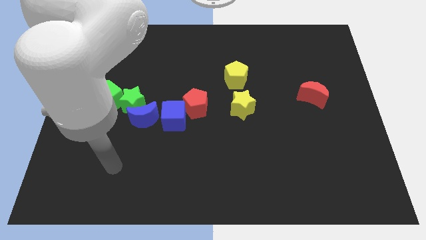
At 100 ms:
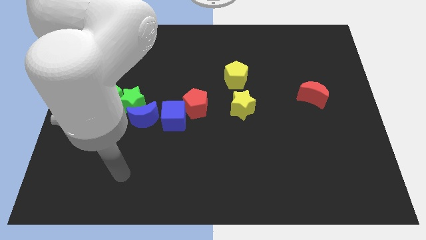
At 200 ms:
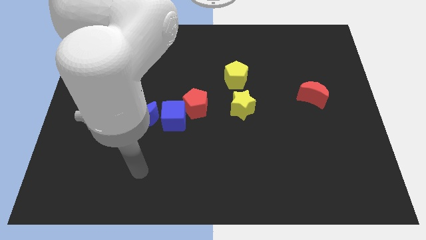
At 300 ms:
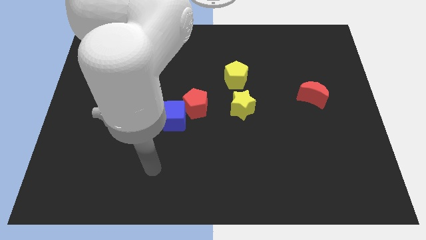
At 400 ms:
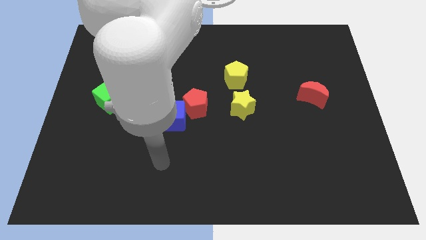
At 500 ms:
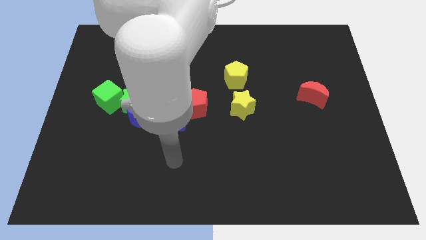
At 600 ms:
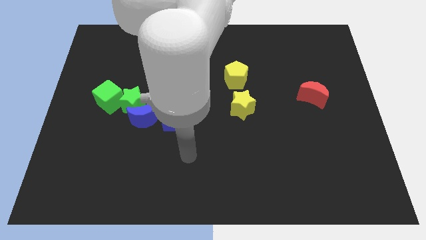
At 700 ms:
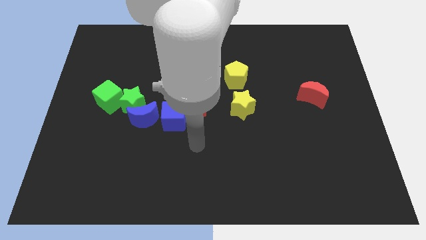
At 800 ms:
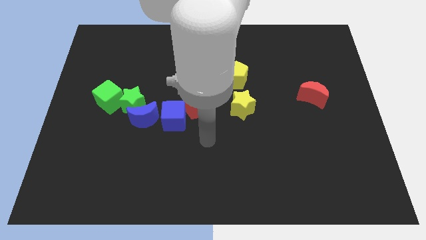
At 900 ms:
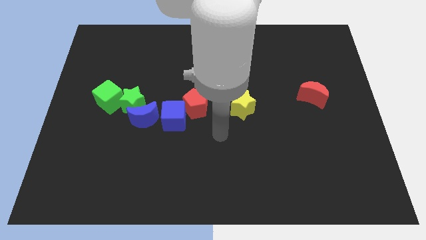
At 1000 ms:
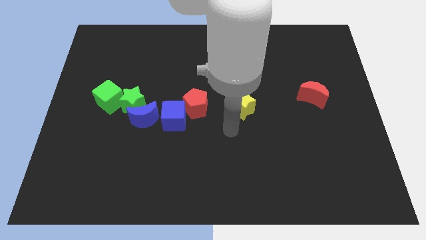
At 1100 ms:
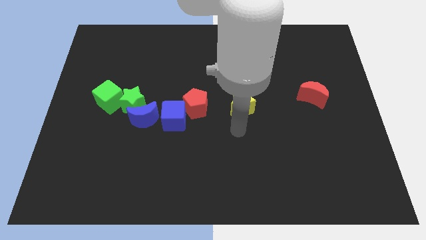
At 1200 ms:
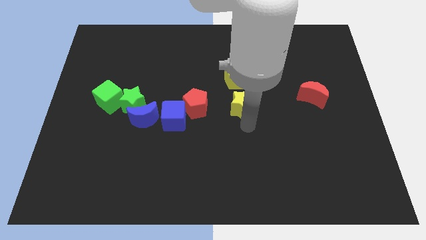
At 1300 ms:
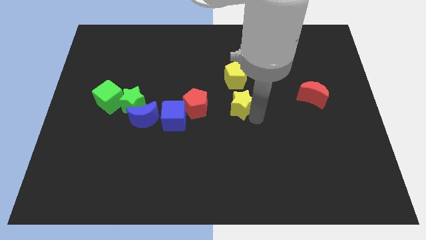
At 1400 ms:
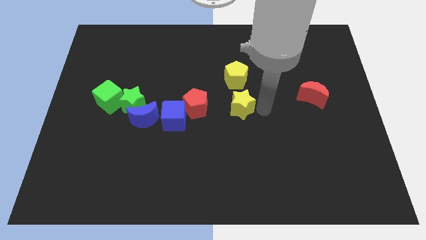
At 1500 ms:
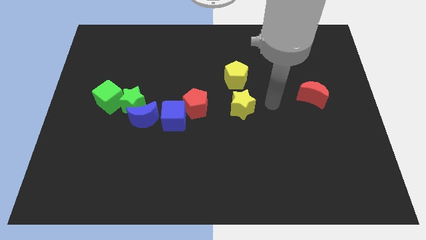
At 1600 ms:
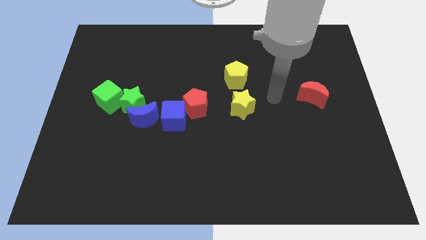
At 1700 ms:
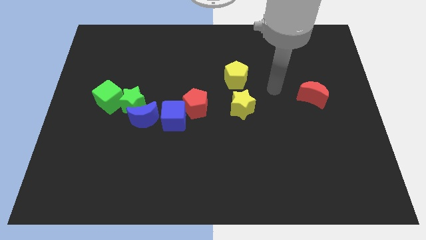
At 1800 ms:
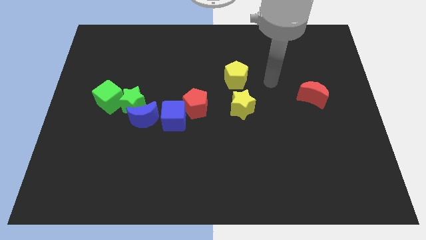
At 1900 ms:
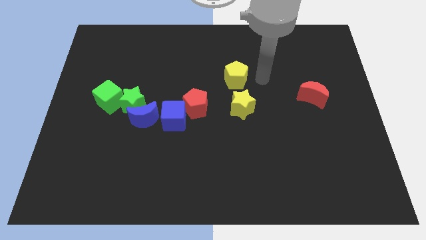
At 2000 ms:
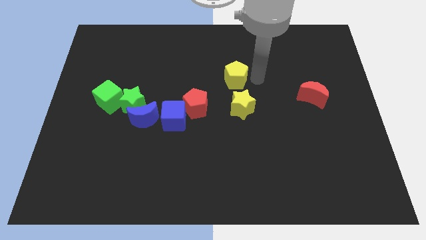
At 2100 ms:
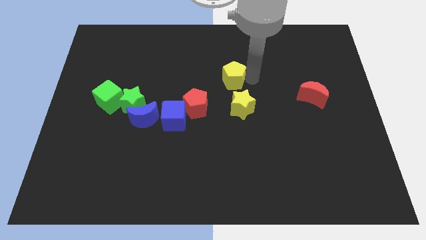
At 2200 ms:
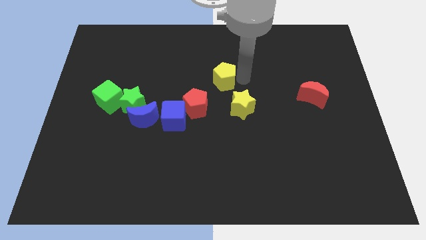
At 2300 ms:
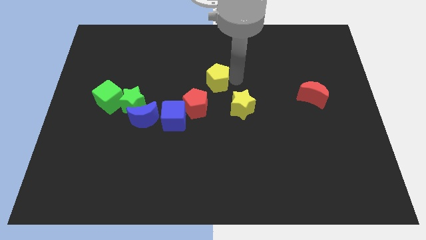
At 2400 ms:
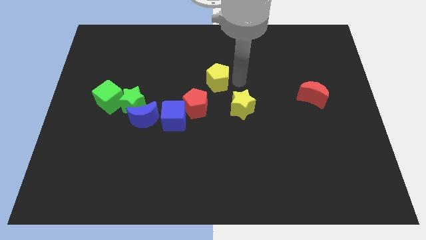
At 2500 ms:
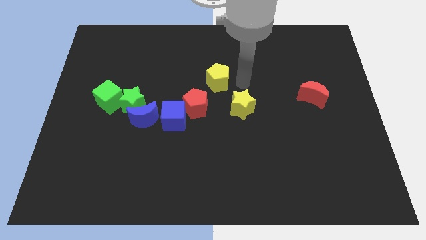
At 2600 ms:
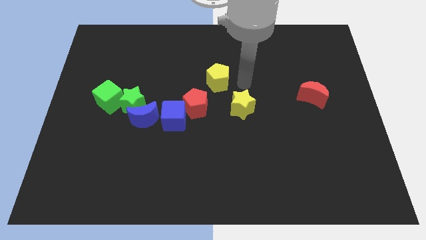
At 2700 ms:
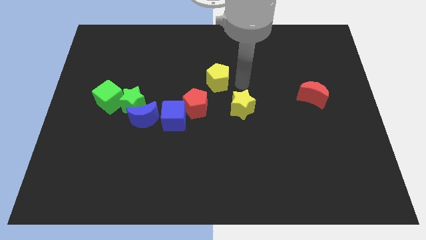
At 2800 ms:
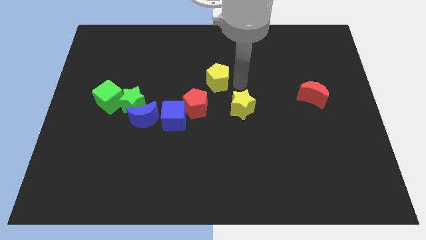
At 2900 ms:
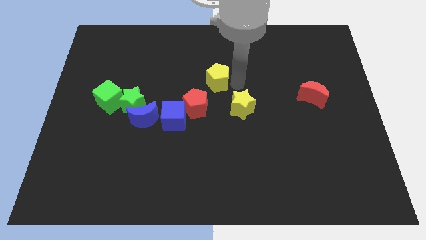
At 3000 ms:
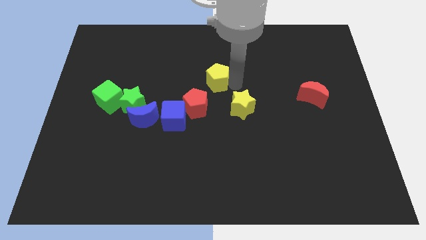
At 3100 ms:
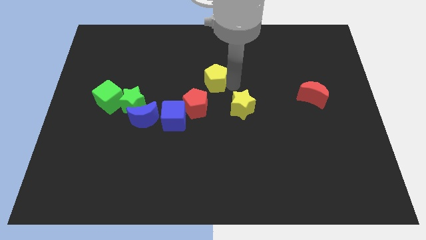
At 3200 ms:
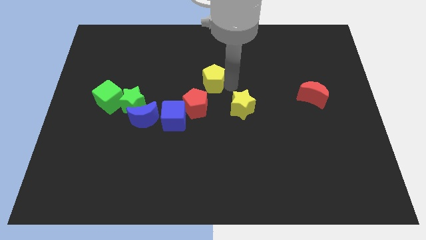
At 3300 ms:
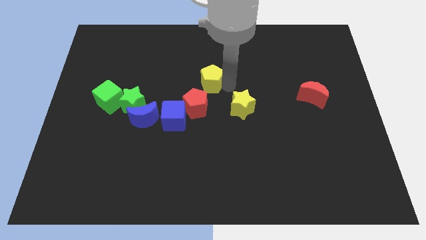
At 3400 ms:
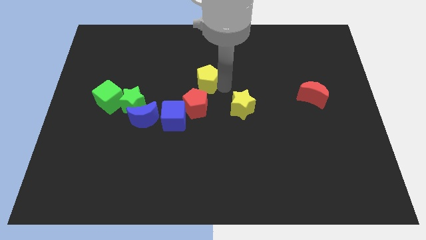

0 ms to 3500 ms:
push the yellow pentagon slightly left

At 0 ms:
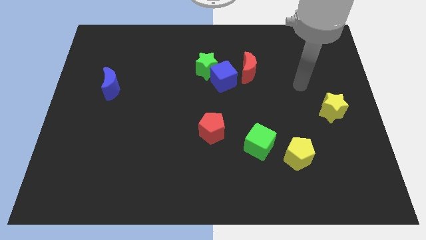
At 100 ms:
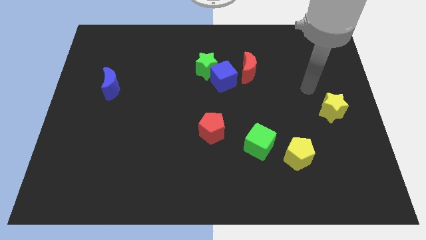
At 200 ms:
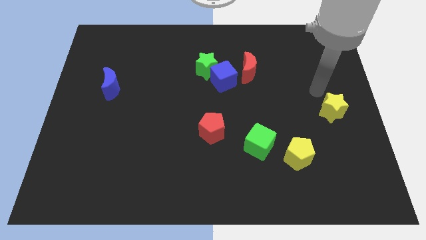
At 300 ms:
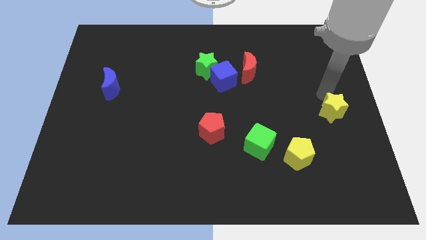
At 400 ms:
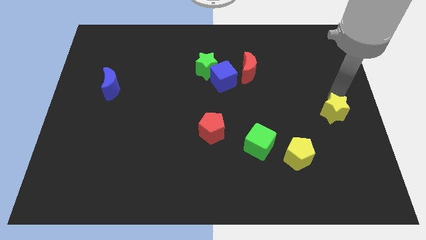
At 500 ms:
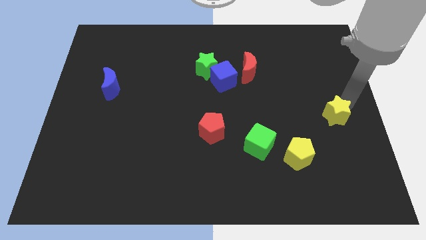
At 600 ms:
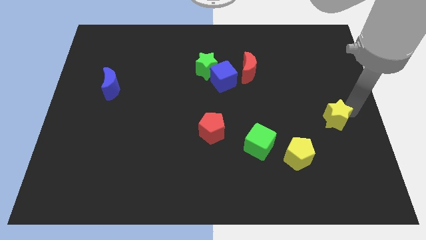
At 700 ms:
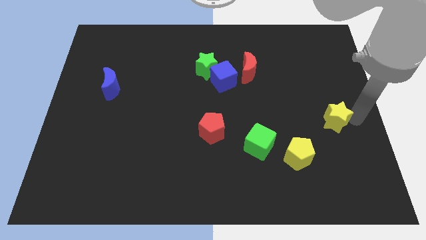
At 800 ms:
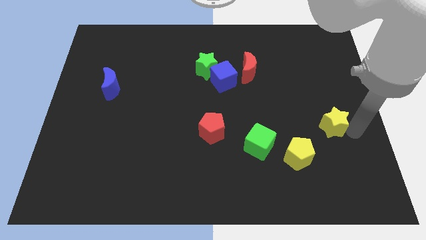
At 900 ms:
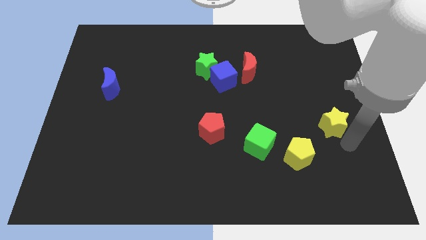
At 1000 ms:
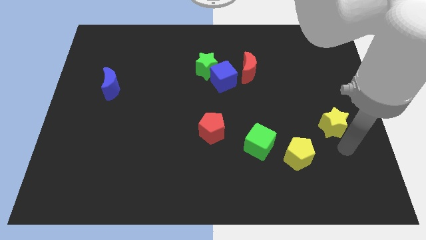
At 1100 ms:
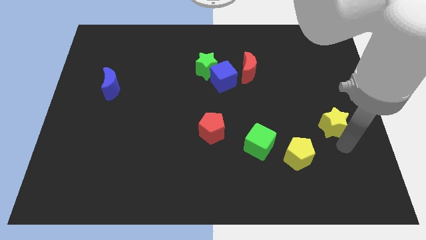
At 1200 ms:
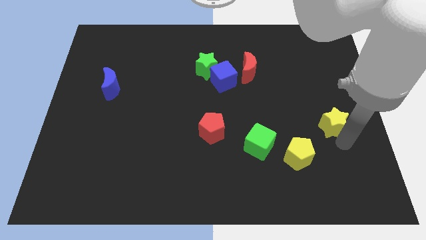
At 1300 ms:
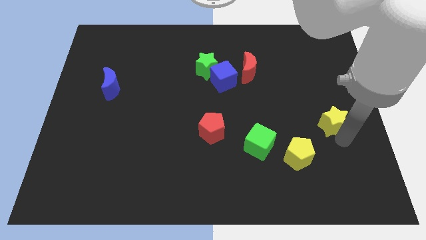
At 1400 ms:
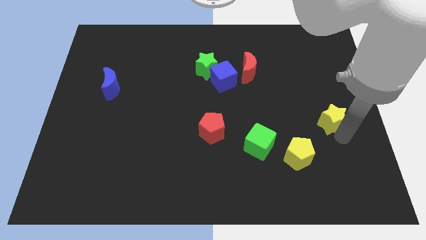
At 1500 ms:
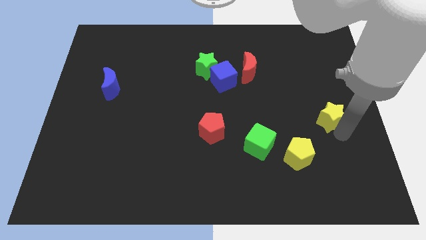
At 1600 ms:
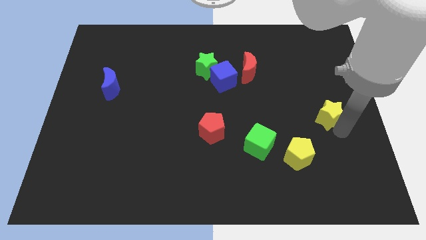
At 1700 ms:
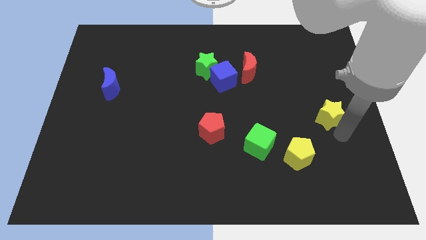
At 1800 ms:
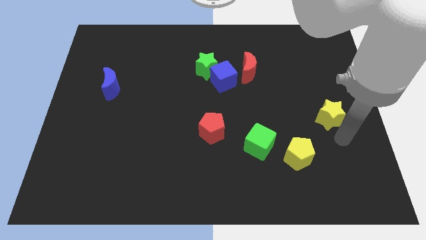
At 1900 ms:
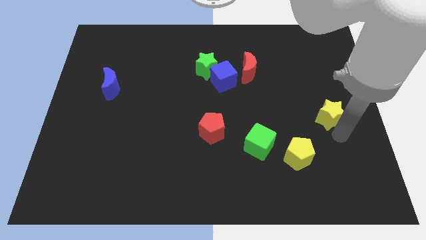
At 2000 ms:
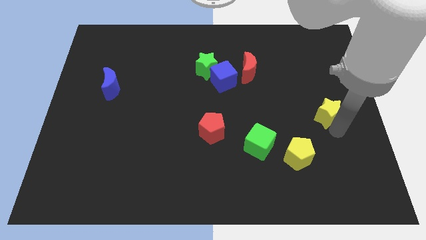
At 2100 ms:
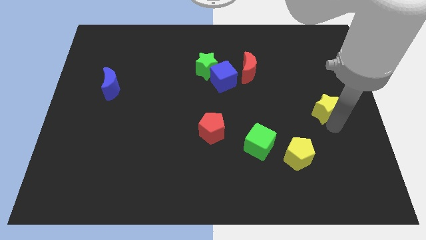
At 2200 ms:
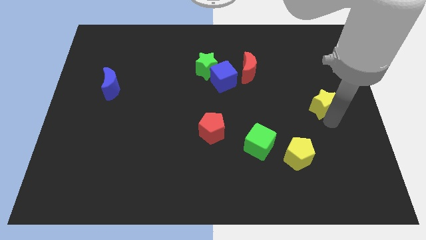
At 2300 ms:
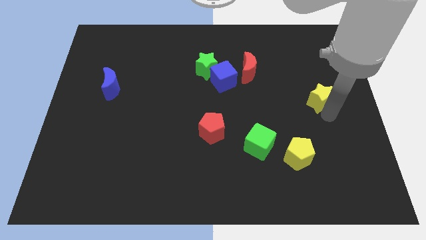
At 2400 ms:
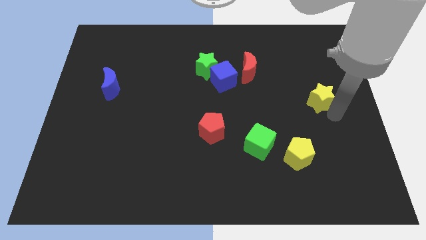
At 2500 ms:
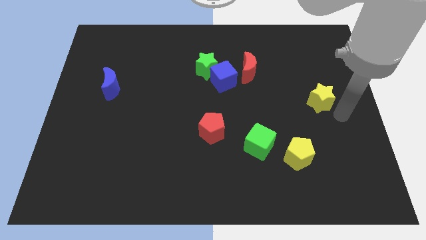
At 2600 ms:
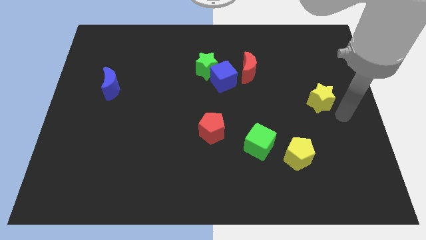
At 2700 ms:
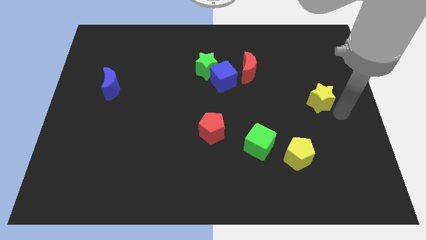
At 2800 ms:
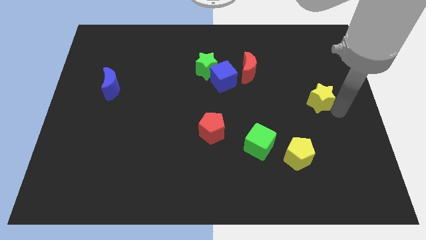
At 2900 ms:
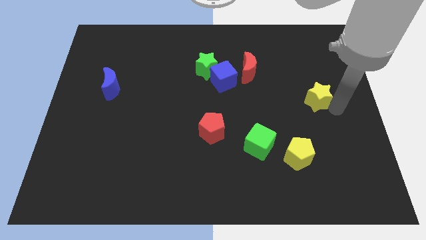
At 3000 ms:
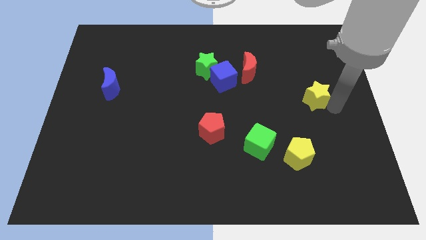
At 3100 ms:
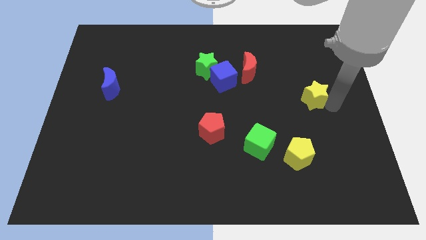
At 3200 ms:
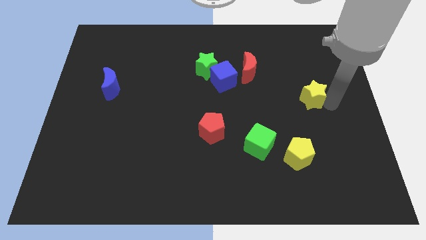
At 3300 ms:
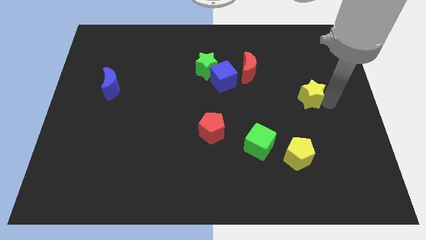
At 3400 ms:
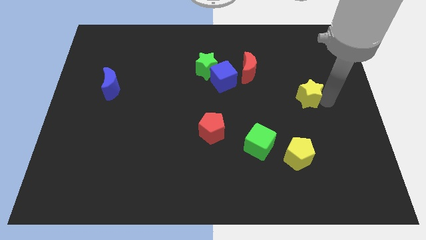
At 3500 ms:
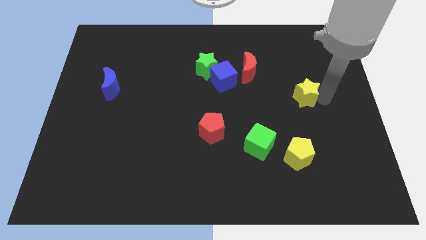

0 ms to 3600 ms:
move the yellow star a little bit up and then left

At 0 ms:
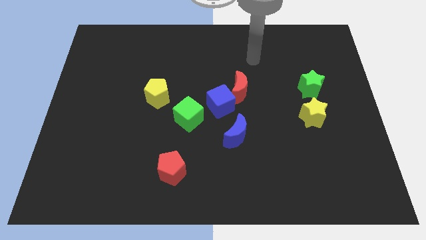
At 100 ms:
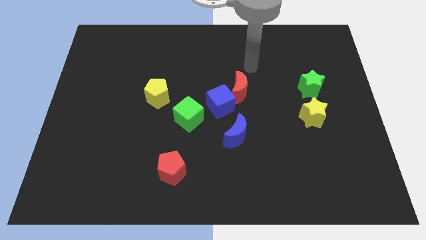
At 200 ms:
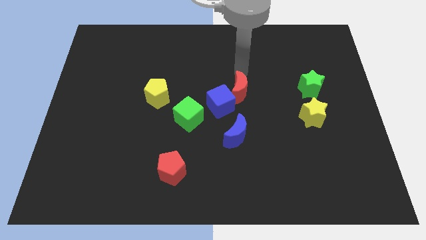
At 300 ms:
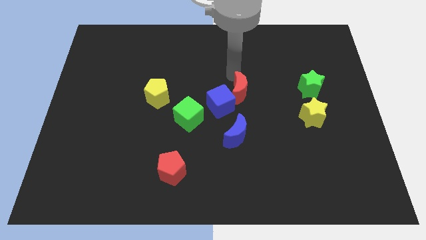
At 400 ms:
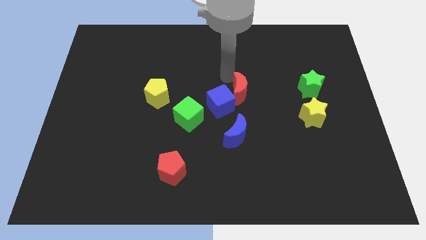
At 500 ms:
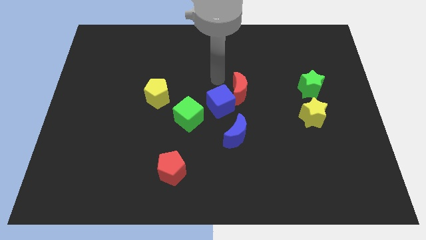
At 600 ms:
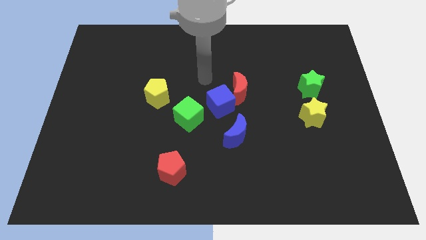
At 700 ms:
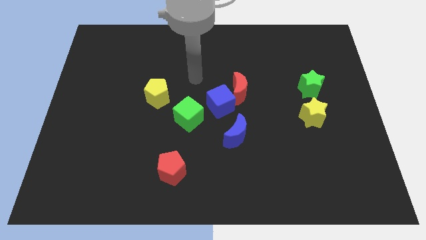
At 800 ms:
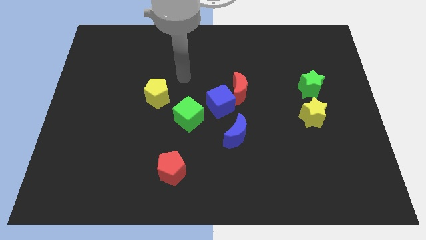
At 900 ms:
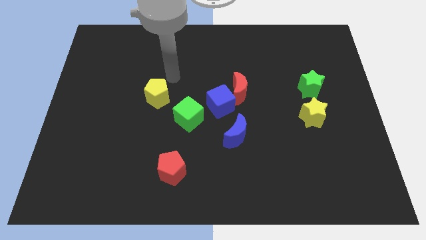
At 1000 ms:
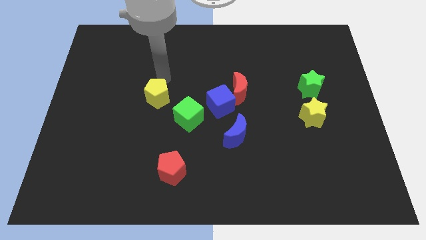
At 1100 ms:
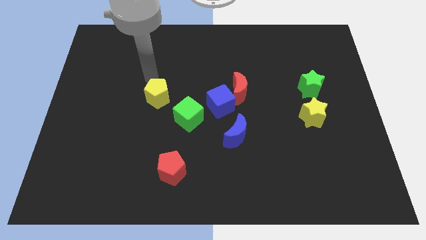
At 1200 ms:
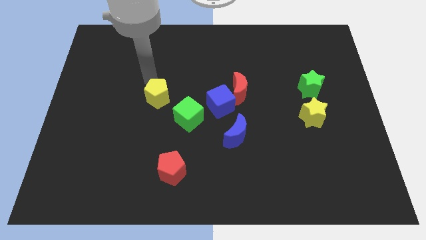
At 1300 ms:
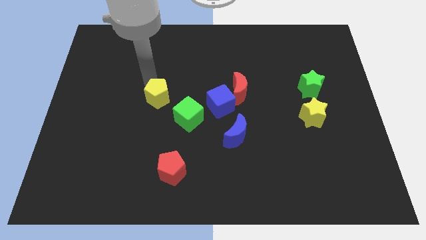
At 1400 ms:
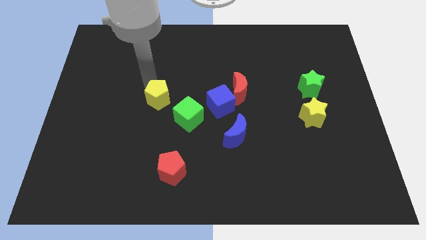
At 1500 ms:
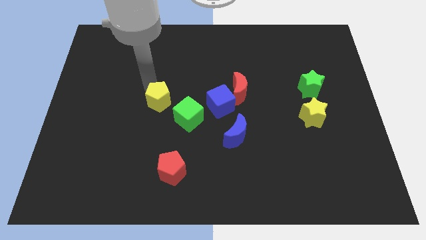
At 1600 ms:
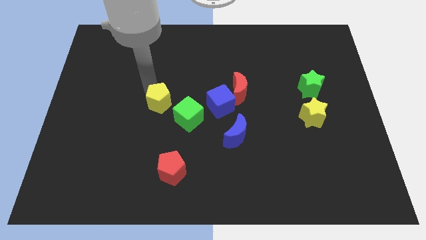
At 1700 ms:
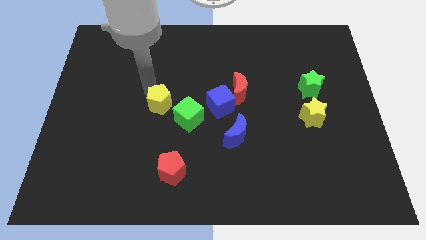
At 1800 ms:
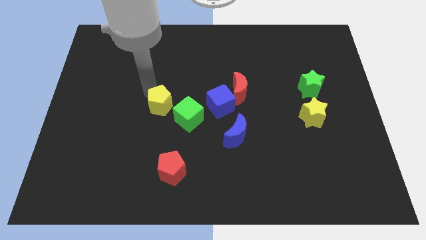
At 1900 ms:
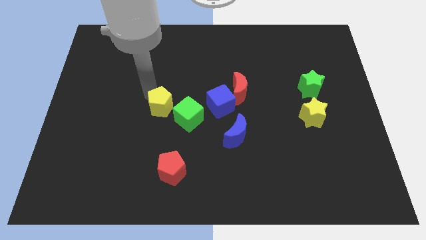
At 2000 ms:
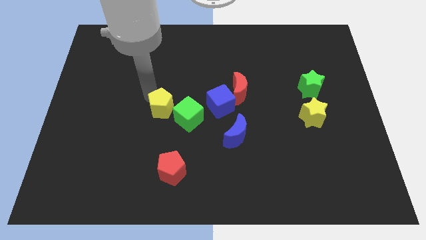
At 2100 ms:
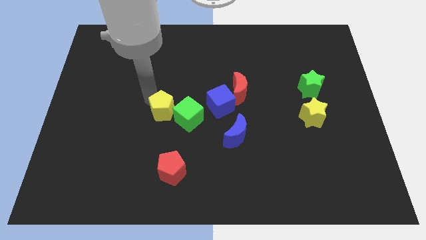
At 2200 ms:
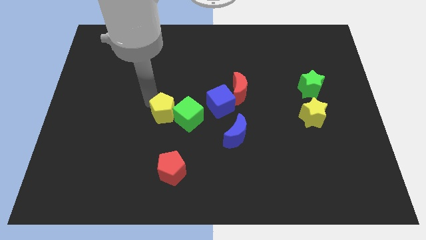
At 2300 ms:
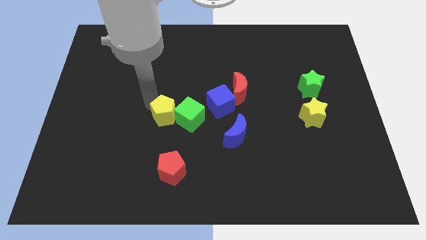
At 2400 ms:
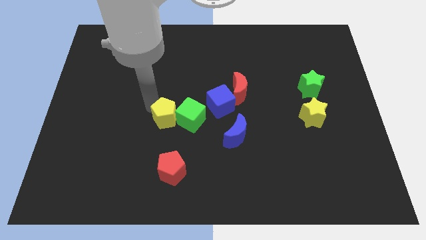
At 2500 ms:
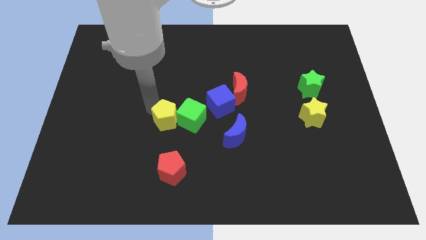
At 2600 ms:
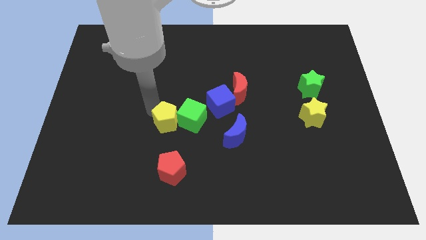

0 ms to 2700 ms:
slide the yellow pentagon diagonally downwards and to the right slightly
